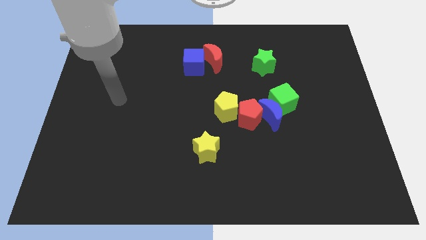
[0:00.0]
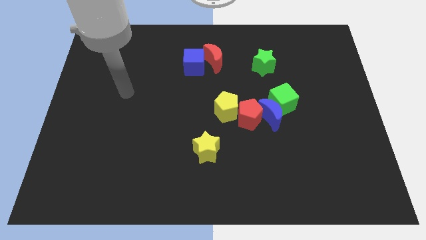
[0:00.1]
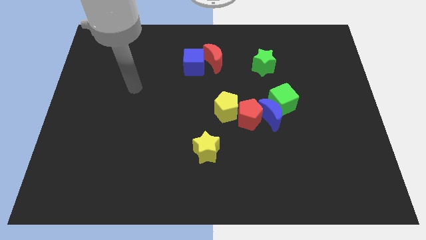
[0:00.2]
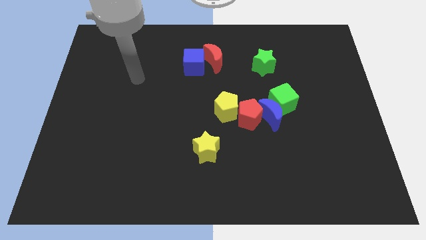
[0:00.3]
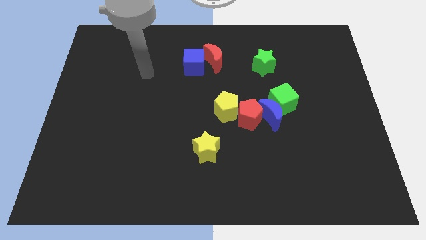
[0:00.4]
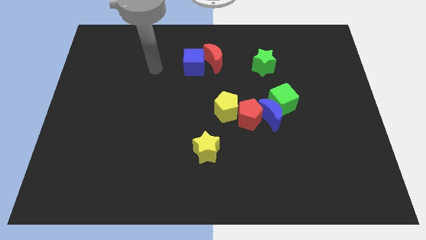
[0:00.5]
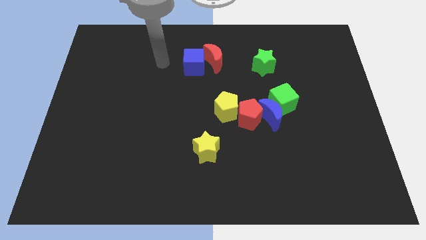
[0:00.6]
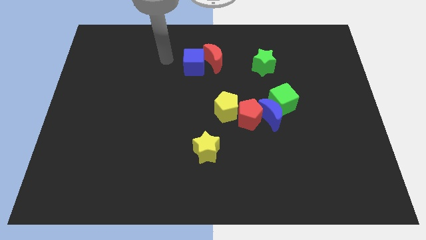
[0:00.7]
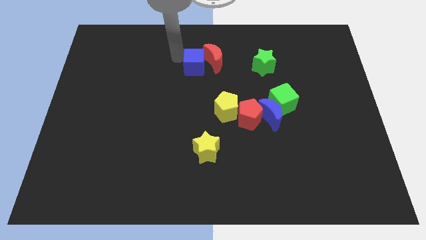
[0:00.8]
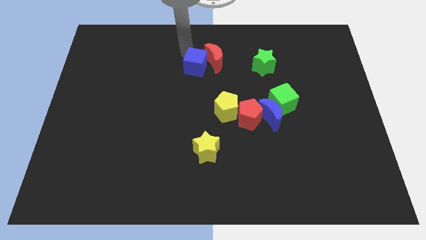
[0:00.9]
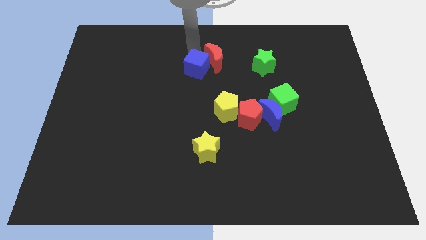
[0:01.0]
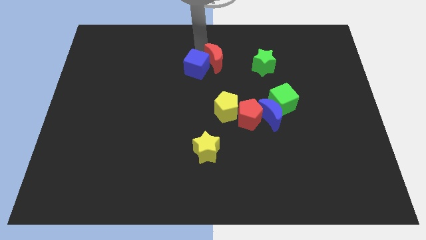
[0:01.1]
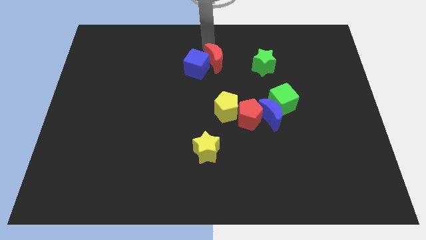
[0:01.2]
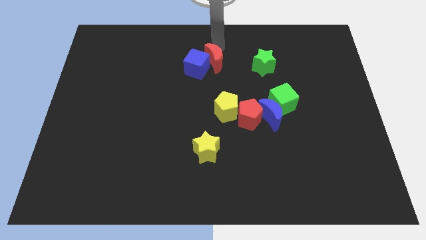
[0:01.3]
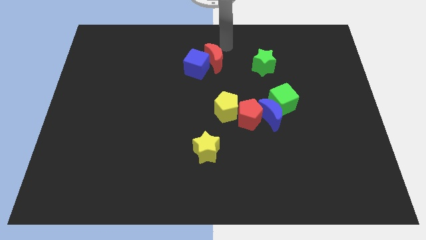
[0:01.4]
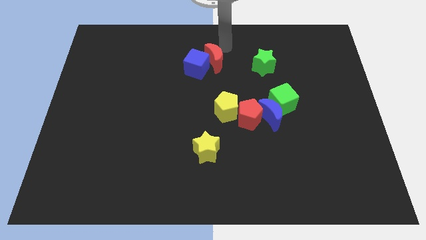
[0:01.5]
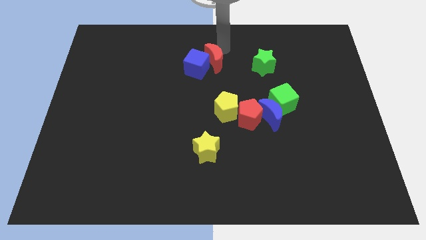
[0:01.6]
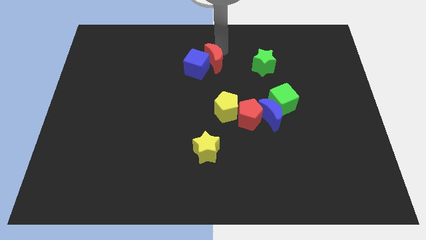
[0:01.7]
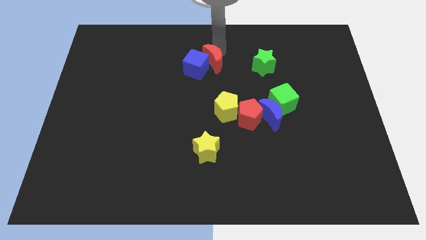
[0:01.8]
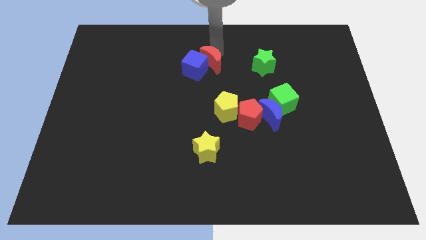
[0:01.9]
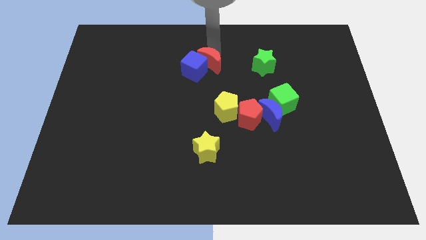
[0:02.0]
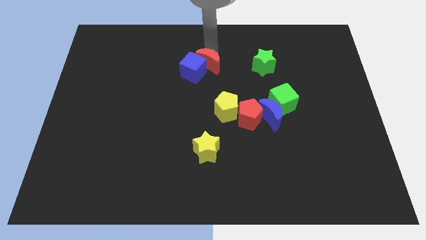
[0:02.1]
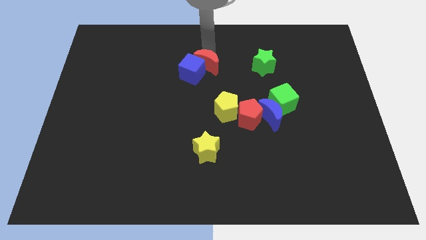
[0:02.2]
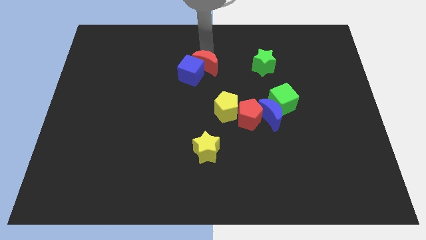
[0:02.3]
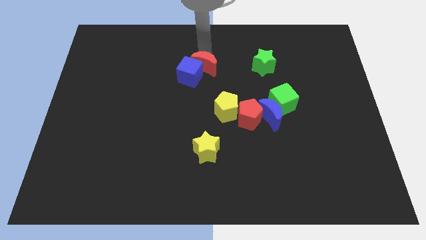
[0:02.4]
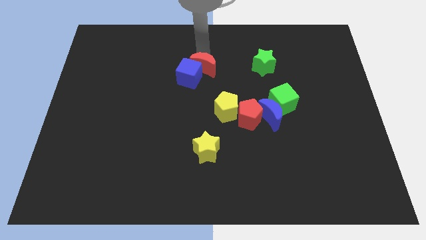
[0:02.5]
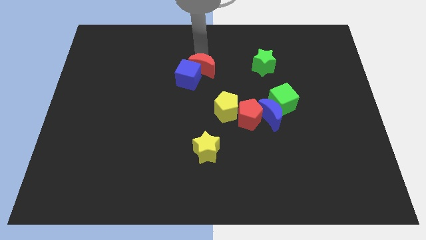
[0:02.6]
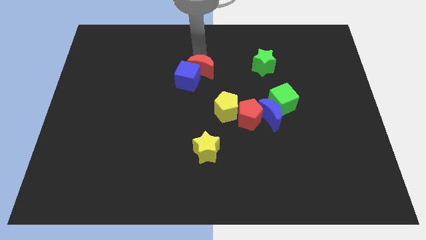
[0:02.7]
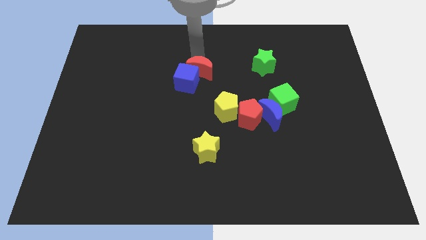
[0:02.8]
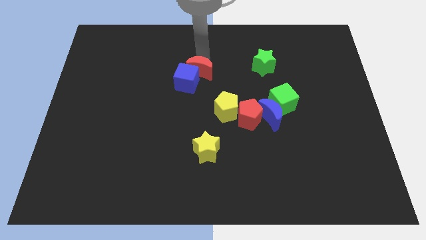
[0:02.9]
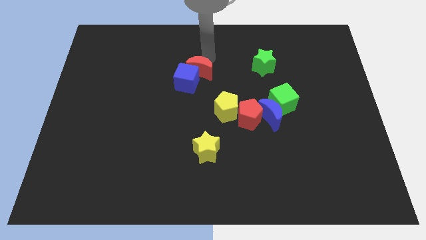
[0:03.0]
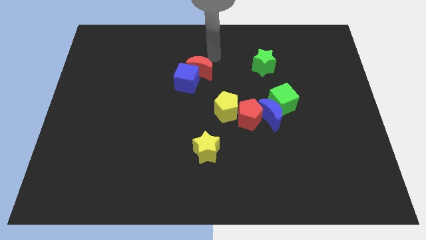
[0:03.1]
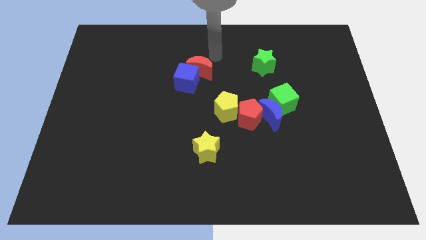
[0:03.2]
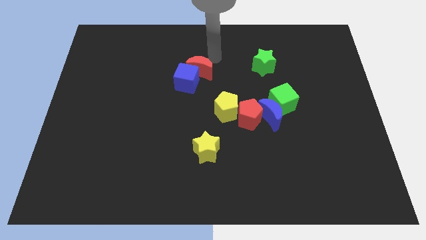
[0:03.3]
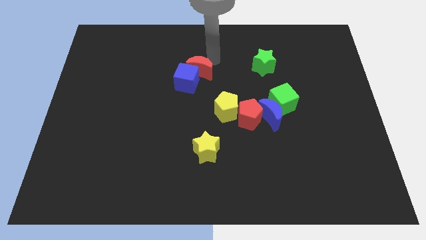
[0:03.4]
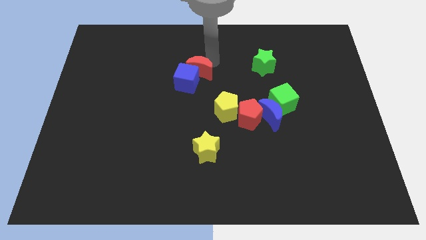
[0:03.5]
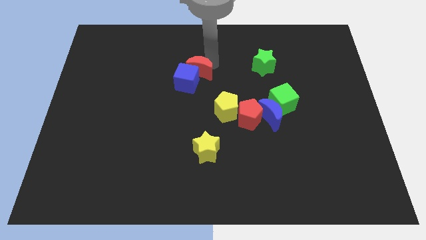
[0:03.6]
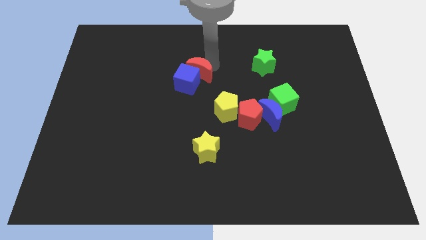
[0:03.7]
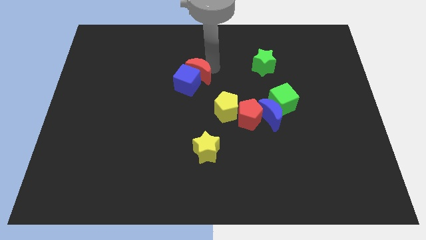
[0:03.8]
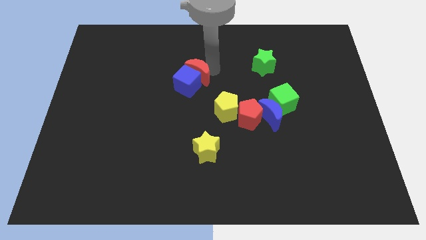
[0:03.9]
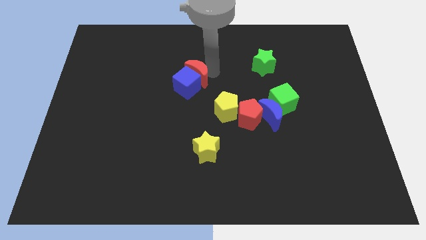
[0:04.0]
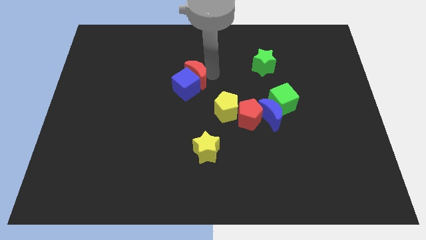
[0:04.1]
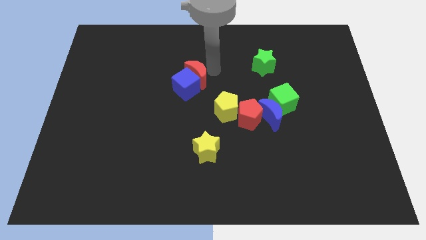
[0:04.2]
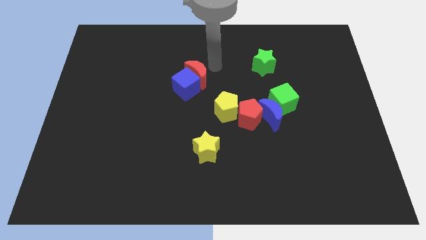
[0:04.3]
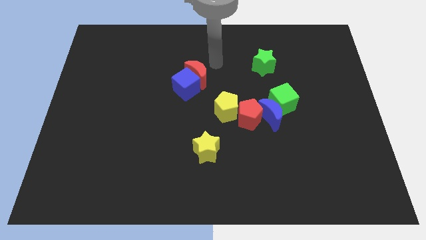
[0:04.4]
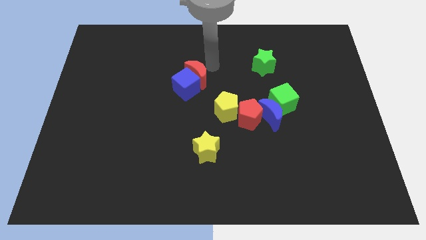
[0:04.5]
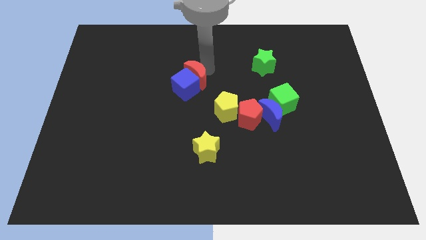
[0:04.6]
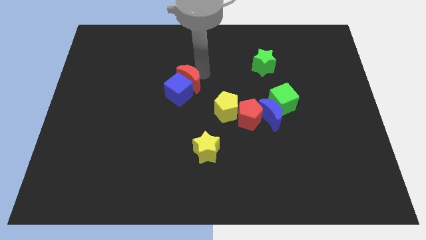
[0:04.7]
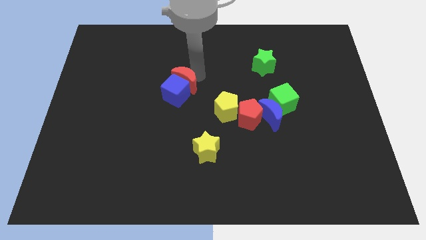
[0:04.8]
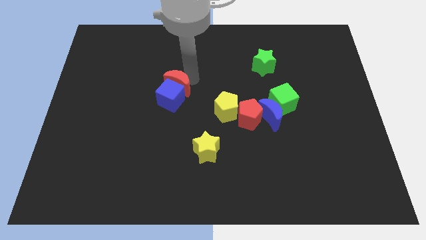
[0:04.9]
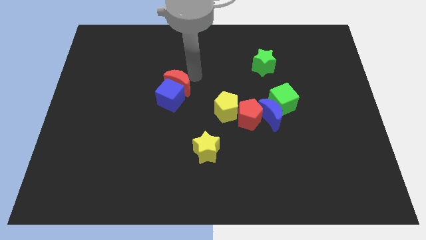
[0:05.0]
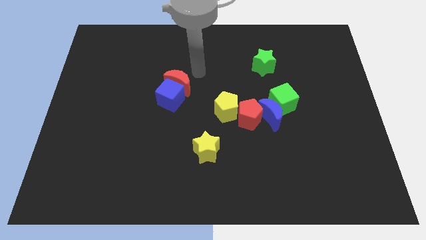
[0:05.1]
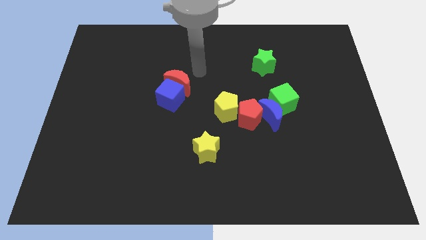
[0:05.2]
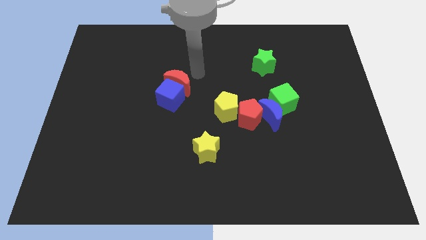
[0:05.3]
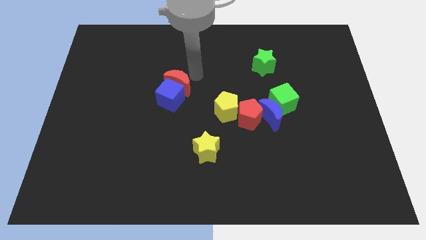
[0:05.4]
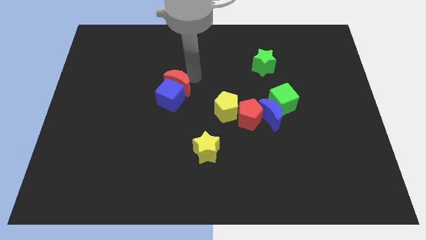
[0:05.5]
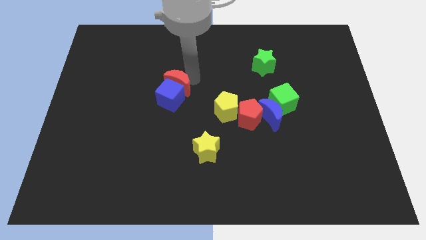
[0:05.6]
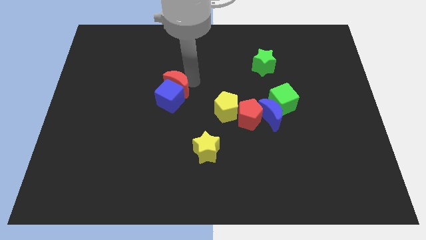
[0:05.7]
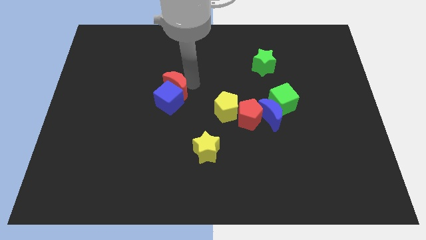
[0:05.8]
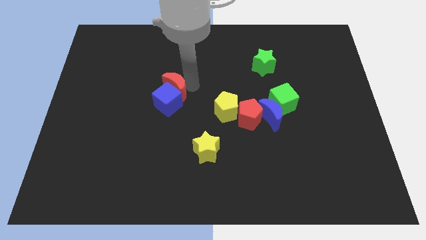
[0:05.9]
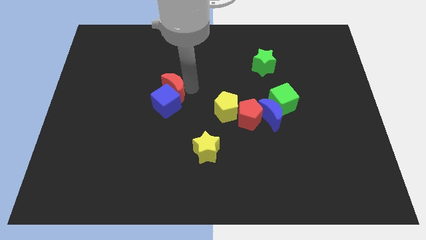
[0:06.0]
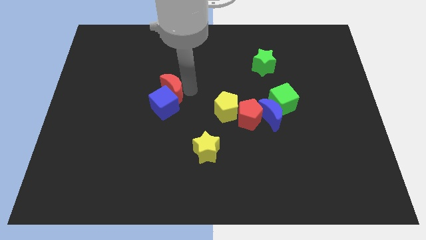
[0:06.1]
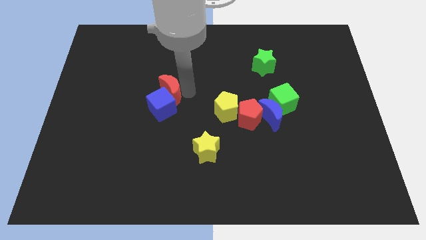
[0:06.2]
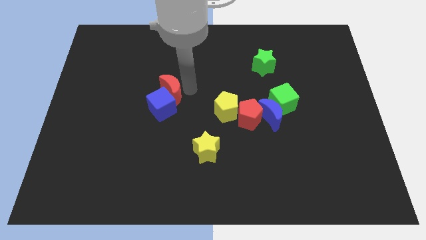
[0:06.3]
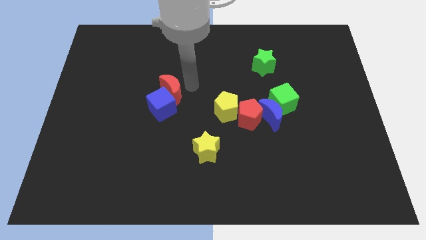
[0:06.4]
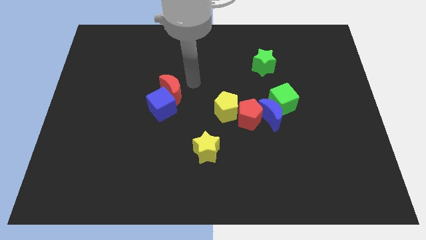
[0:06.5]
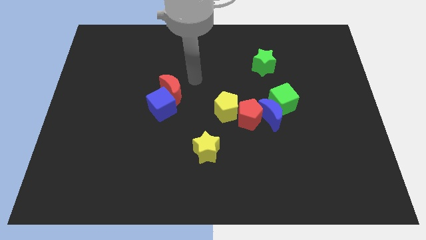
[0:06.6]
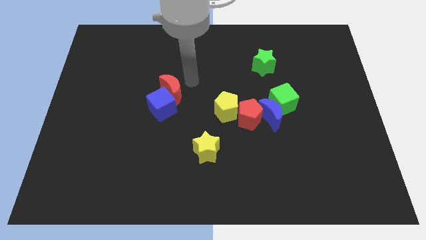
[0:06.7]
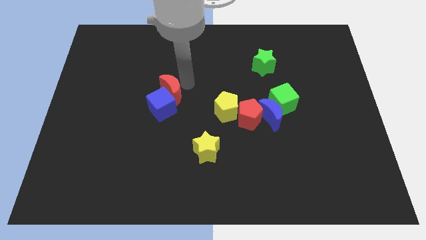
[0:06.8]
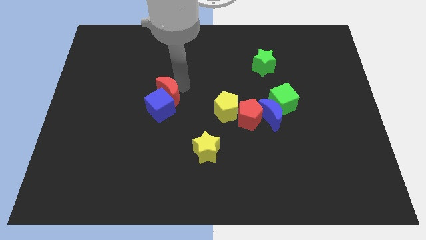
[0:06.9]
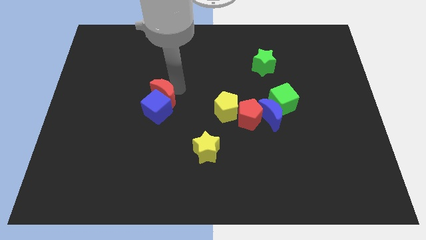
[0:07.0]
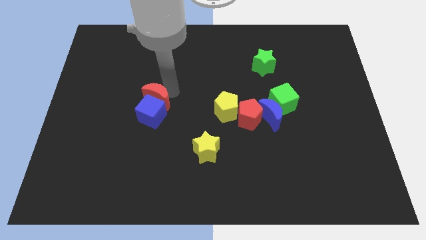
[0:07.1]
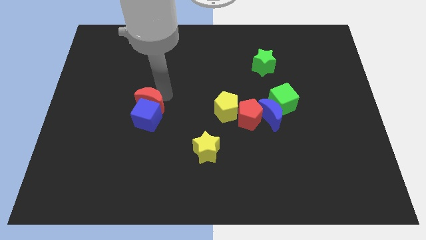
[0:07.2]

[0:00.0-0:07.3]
slide the red moon down and to the left

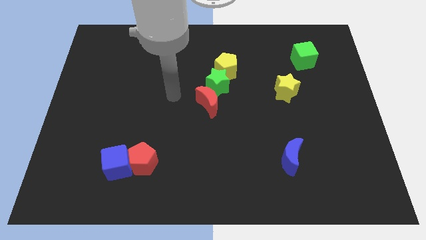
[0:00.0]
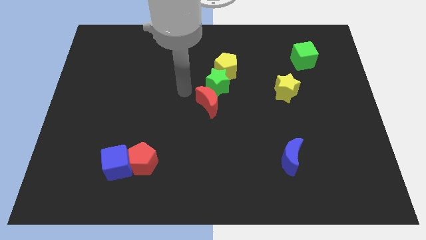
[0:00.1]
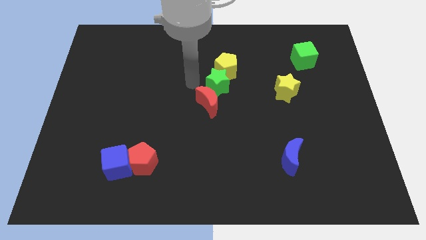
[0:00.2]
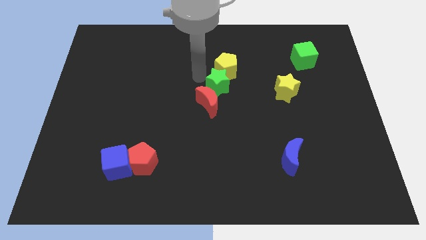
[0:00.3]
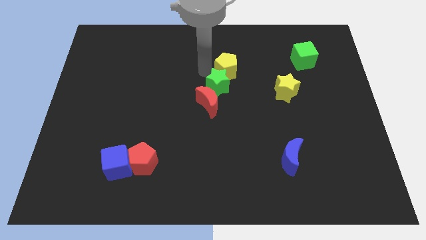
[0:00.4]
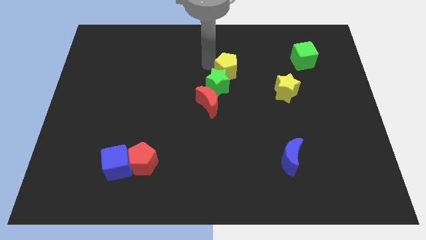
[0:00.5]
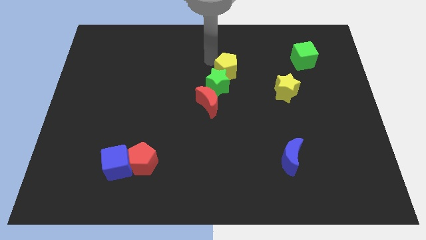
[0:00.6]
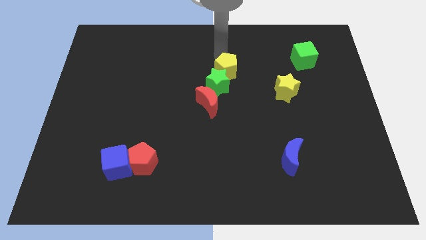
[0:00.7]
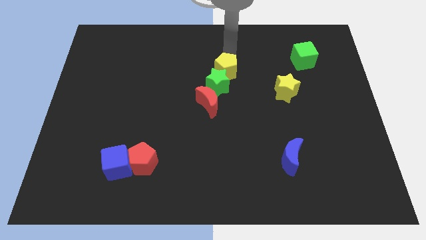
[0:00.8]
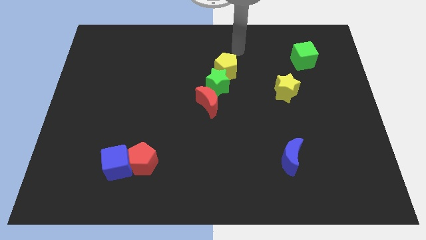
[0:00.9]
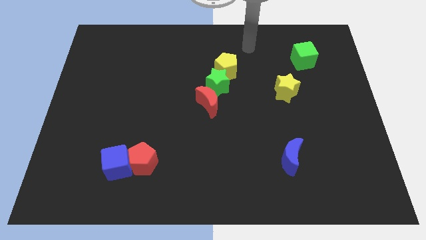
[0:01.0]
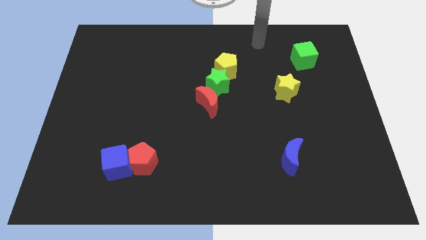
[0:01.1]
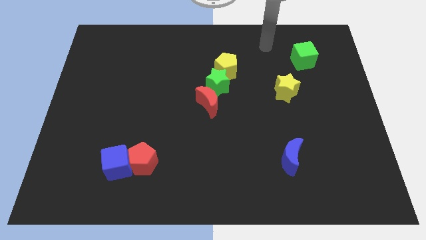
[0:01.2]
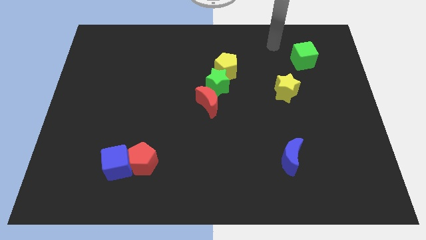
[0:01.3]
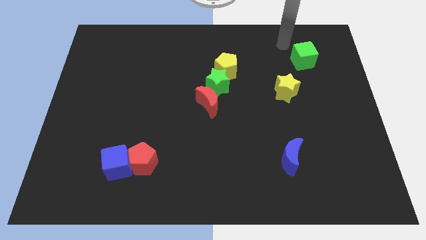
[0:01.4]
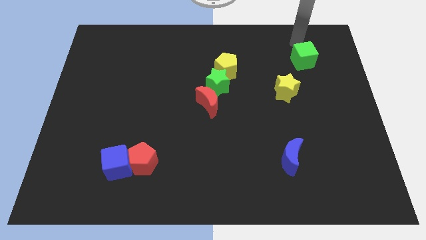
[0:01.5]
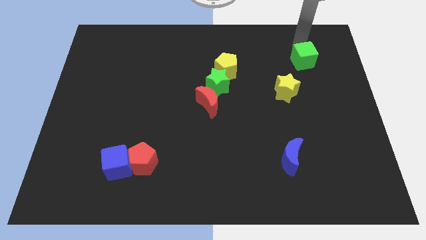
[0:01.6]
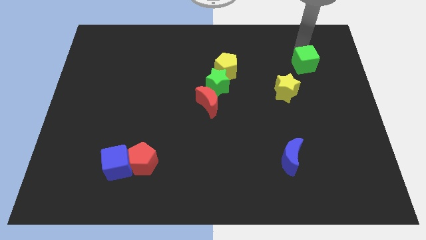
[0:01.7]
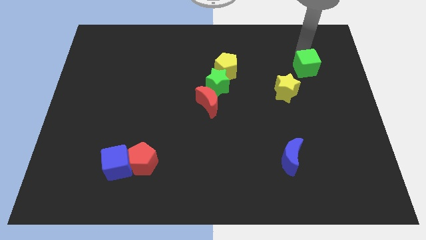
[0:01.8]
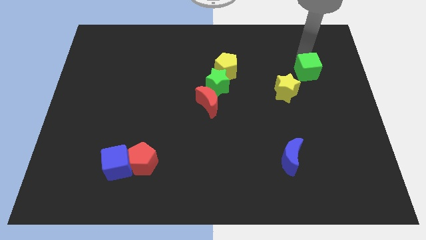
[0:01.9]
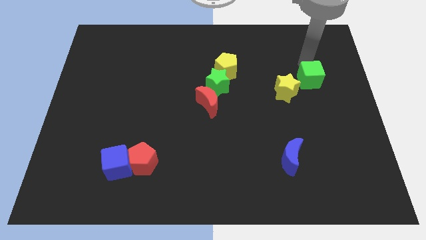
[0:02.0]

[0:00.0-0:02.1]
slightly move the green cube downwards
